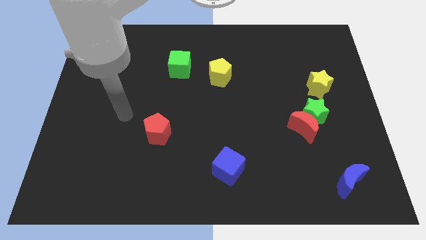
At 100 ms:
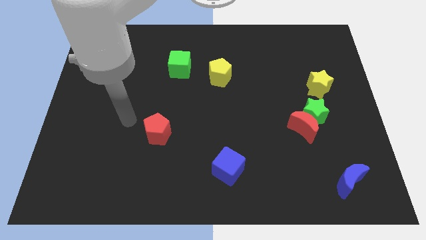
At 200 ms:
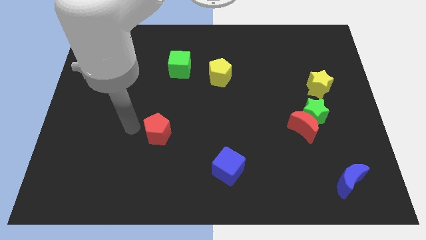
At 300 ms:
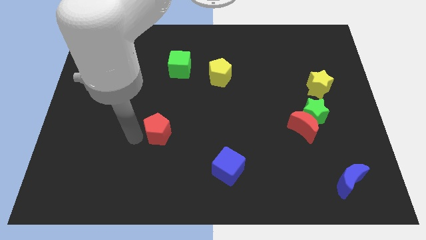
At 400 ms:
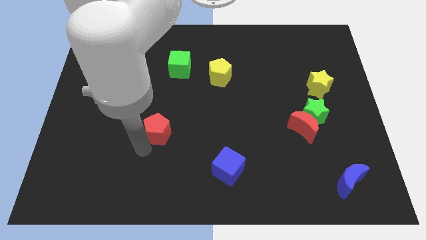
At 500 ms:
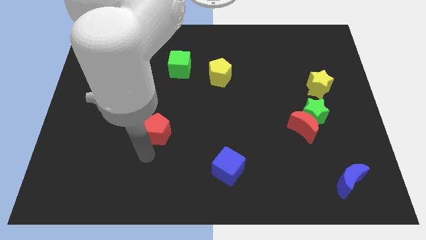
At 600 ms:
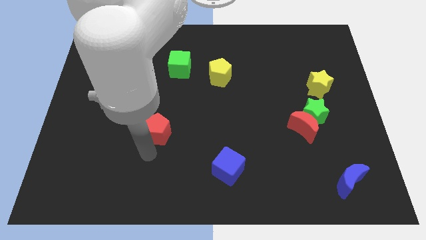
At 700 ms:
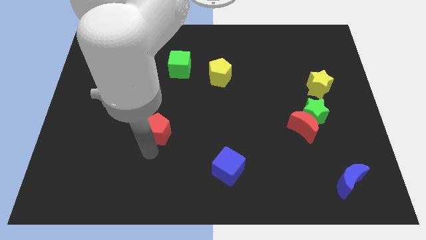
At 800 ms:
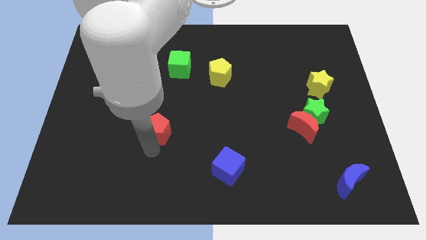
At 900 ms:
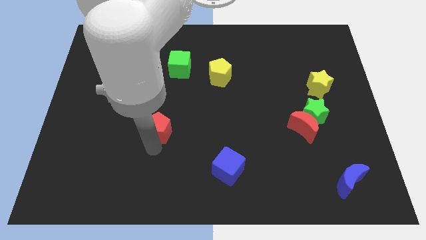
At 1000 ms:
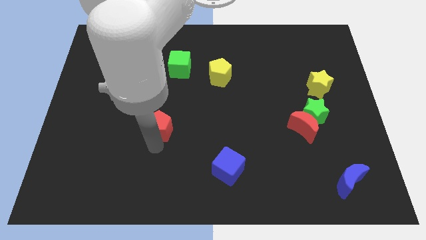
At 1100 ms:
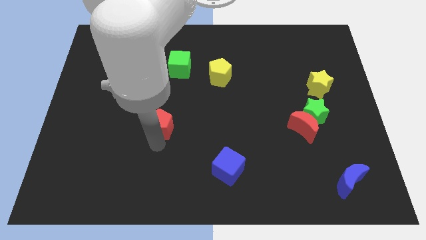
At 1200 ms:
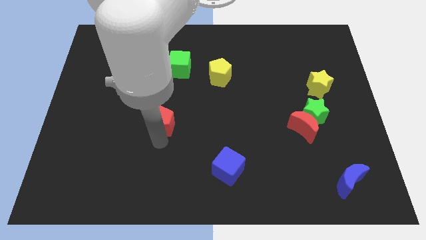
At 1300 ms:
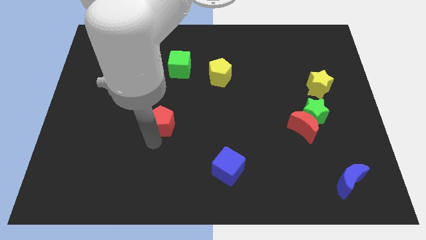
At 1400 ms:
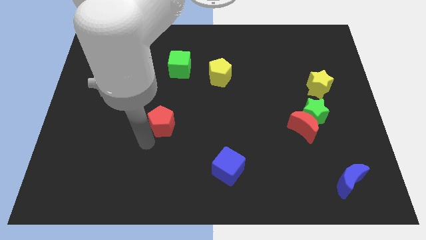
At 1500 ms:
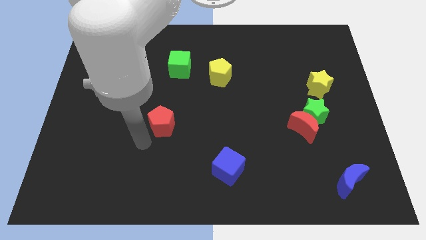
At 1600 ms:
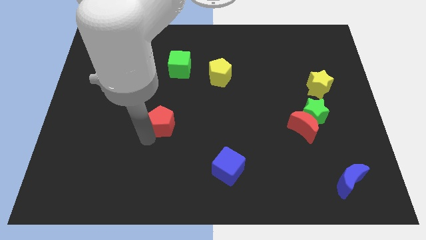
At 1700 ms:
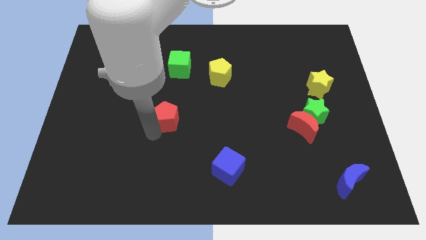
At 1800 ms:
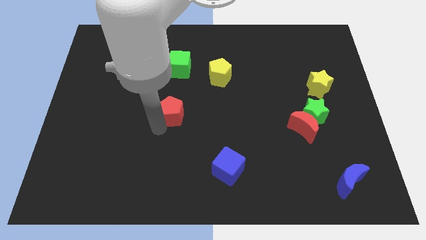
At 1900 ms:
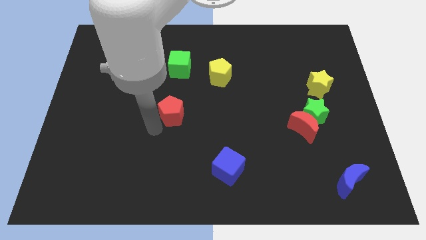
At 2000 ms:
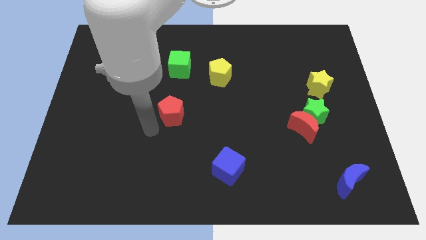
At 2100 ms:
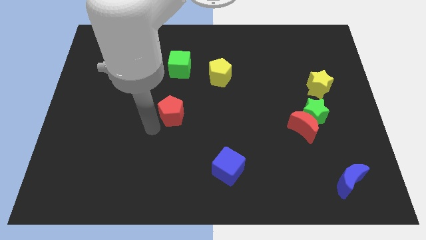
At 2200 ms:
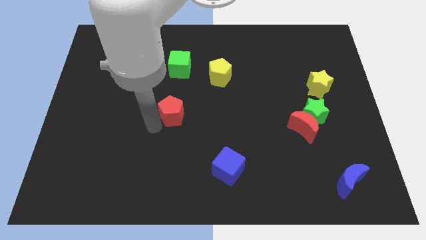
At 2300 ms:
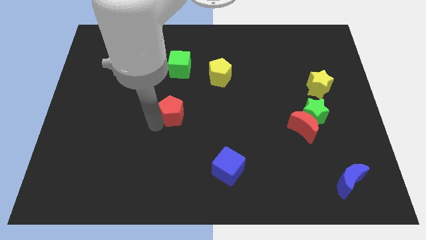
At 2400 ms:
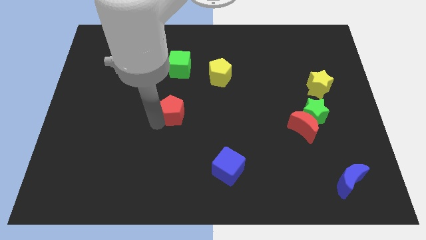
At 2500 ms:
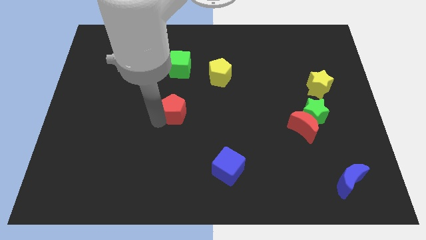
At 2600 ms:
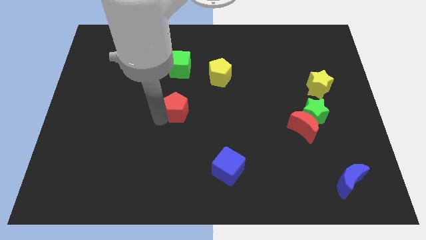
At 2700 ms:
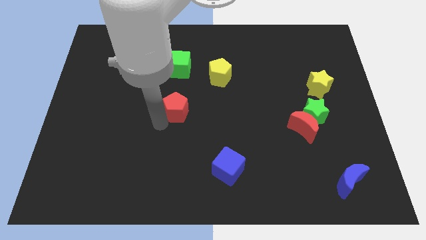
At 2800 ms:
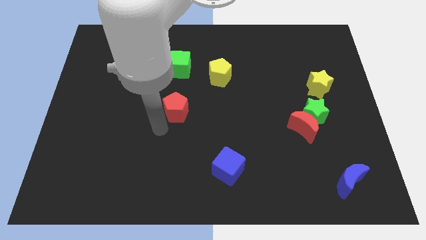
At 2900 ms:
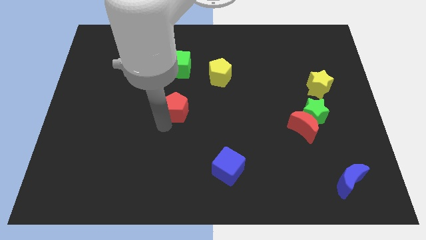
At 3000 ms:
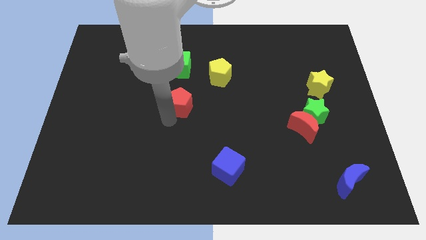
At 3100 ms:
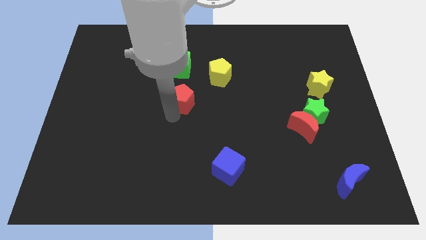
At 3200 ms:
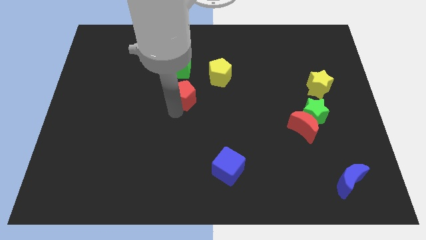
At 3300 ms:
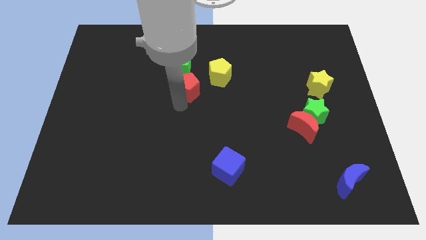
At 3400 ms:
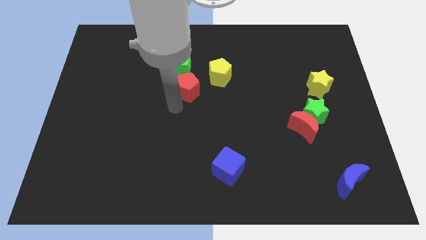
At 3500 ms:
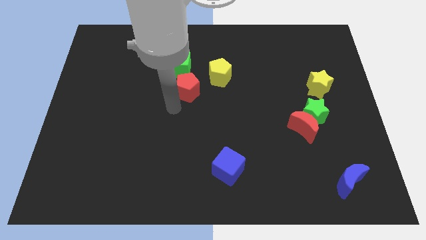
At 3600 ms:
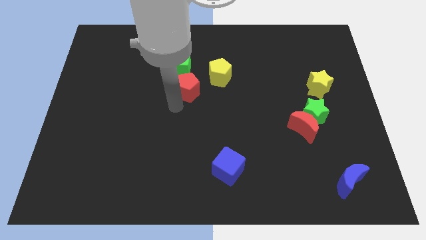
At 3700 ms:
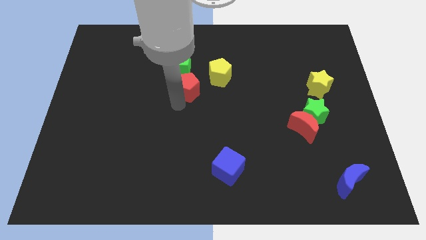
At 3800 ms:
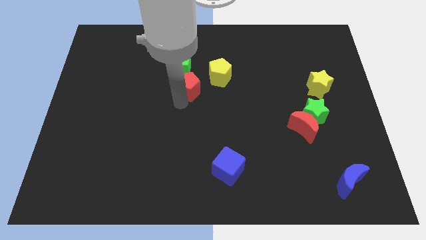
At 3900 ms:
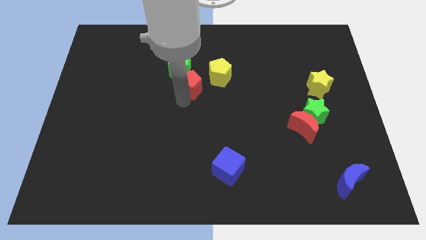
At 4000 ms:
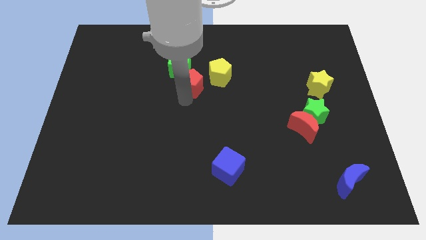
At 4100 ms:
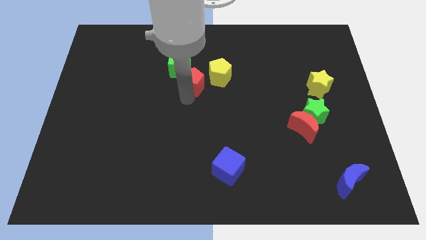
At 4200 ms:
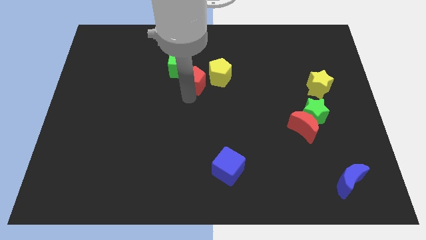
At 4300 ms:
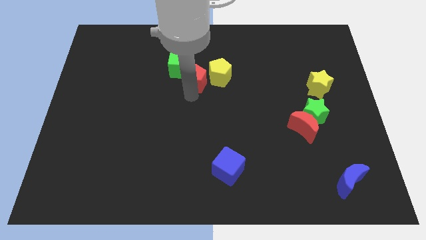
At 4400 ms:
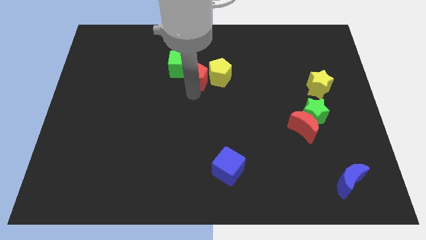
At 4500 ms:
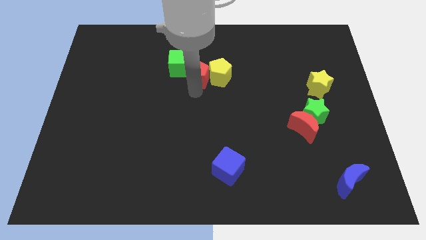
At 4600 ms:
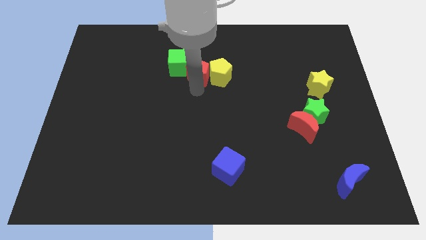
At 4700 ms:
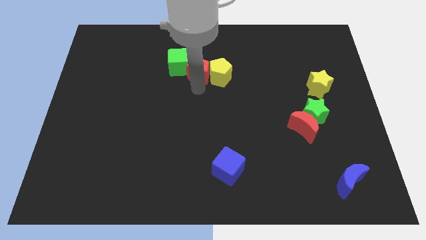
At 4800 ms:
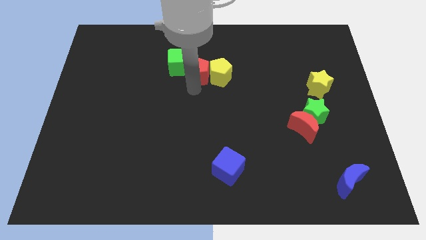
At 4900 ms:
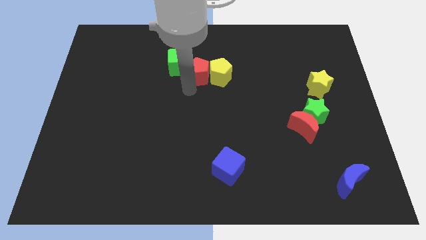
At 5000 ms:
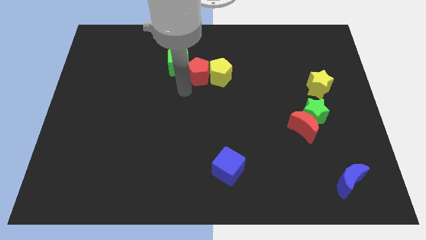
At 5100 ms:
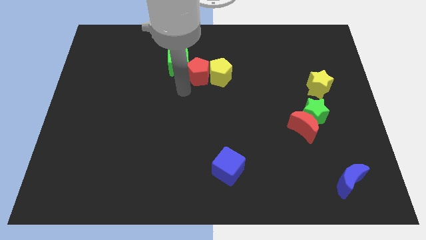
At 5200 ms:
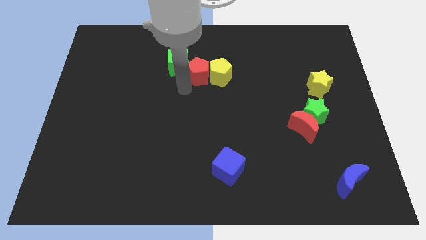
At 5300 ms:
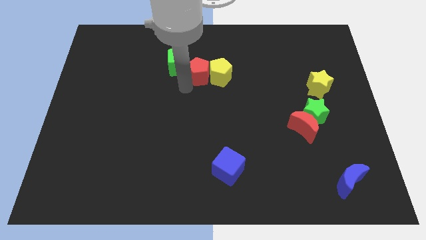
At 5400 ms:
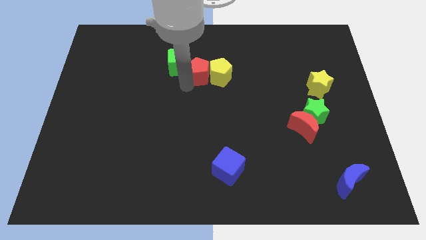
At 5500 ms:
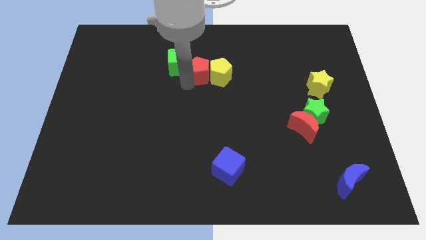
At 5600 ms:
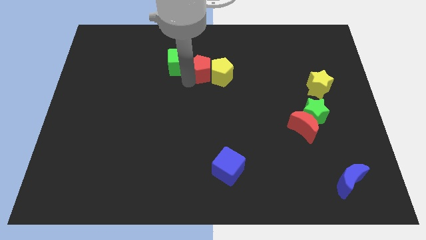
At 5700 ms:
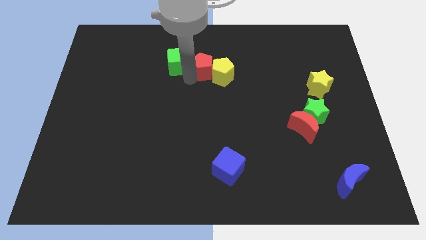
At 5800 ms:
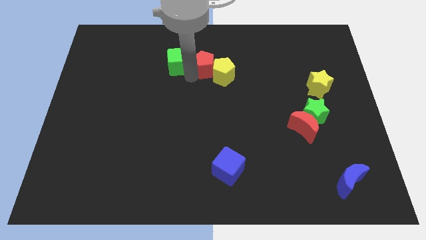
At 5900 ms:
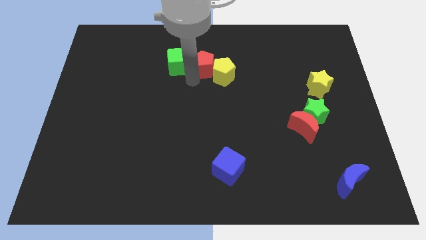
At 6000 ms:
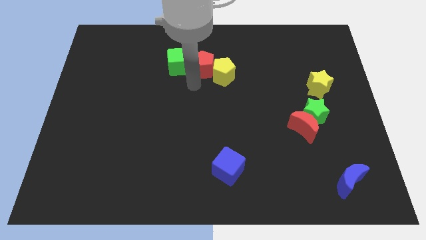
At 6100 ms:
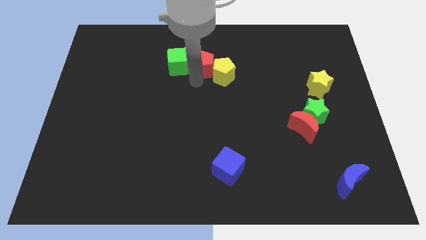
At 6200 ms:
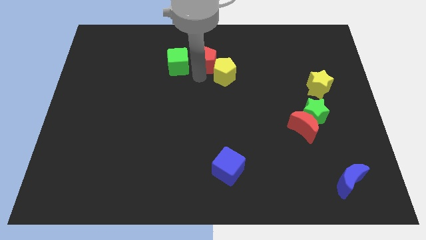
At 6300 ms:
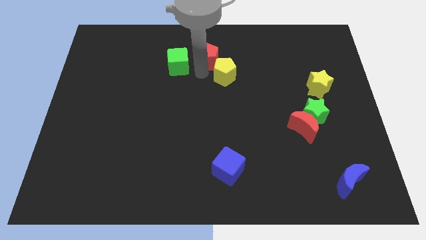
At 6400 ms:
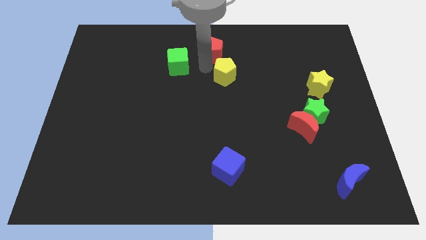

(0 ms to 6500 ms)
push the red pentagon to the top

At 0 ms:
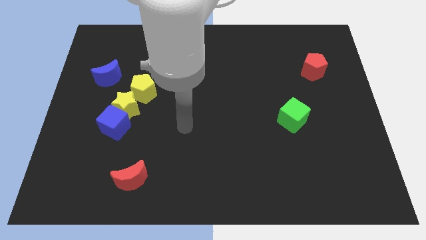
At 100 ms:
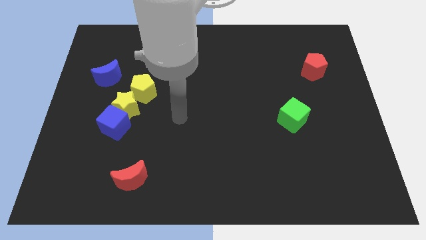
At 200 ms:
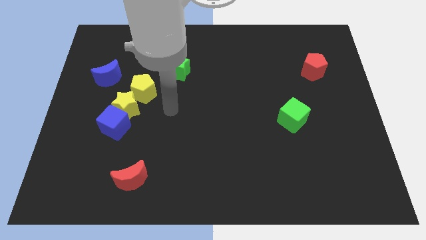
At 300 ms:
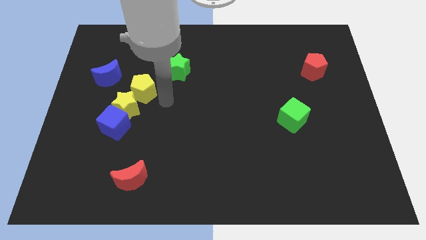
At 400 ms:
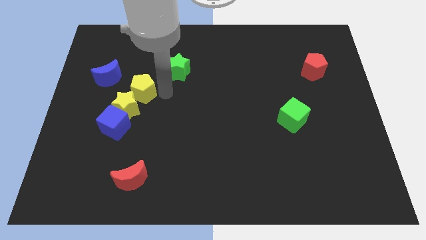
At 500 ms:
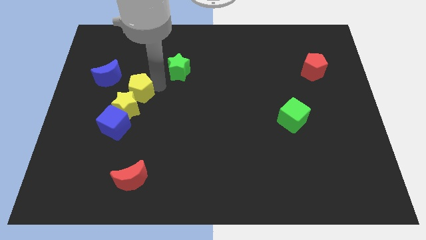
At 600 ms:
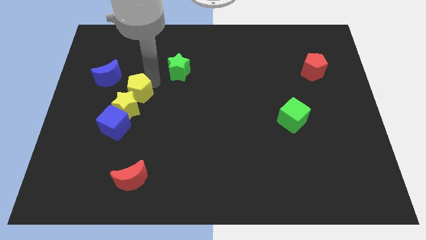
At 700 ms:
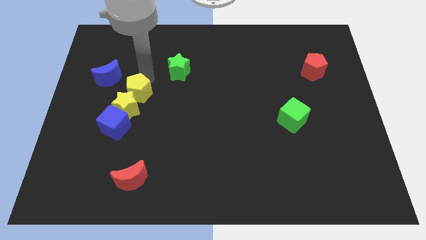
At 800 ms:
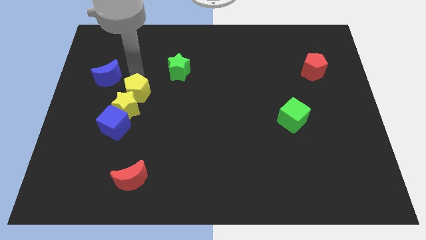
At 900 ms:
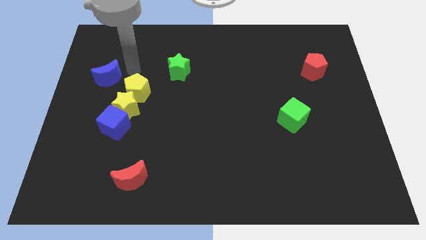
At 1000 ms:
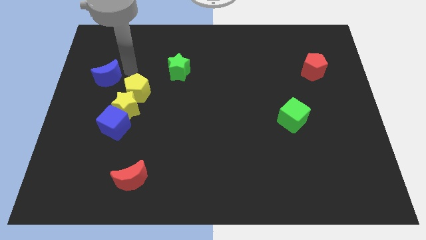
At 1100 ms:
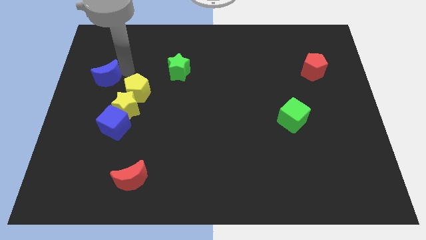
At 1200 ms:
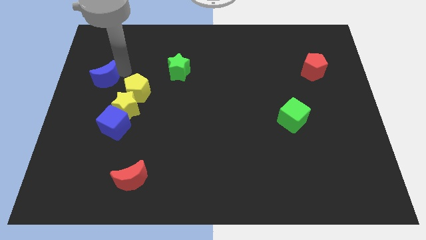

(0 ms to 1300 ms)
put the blue moon to the left side
